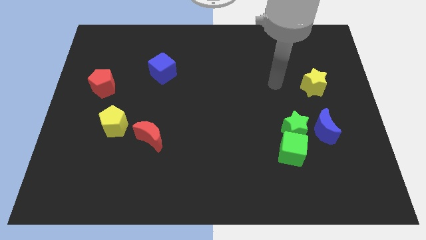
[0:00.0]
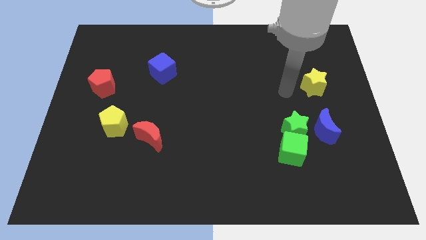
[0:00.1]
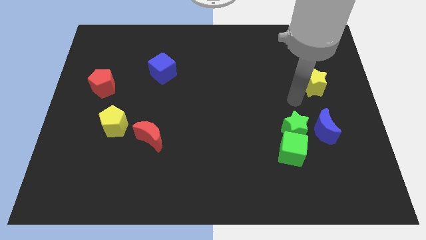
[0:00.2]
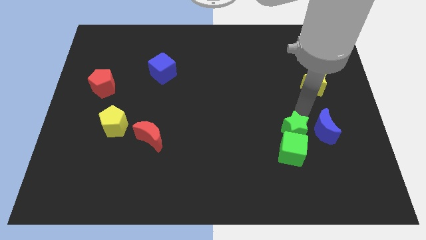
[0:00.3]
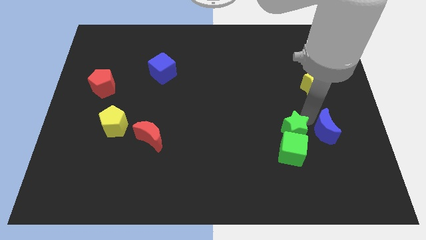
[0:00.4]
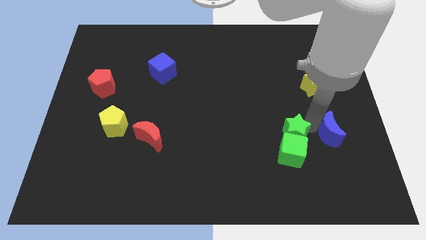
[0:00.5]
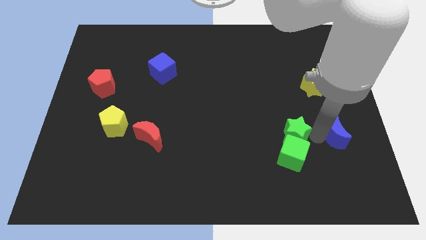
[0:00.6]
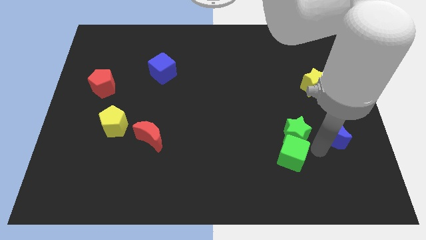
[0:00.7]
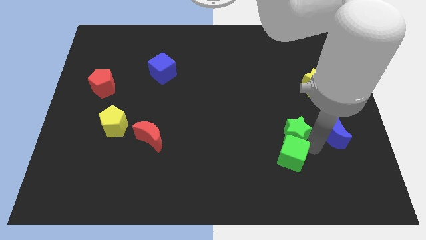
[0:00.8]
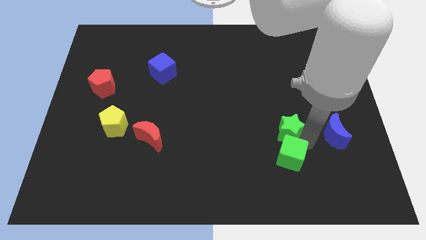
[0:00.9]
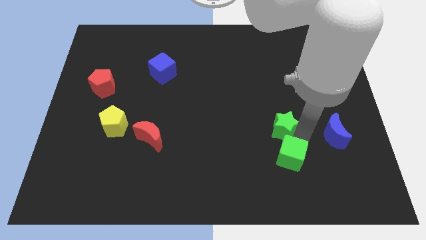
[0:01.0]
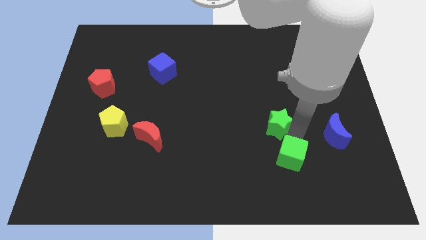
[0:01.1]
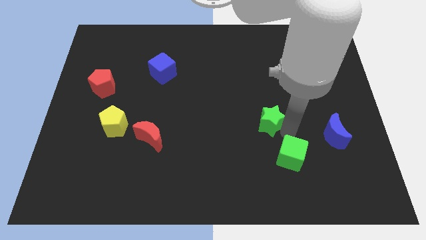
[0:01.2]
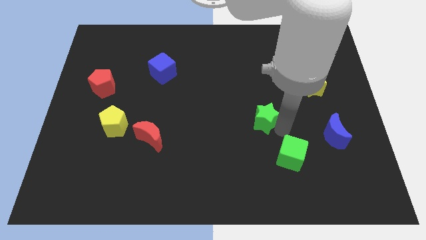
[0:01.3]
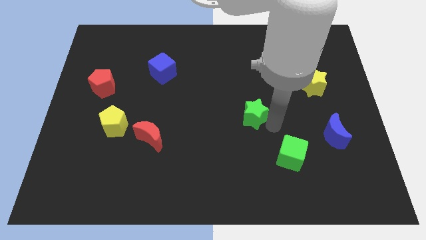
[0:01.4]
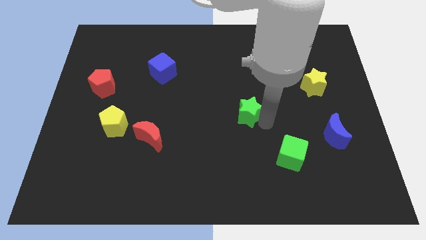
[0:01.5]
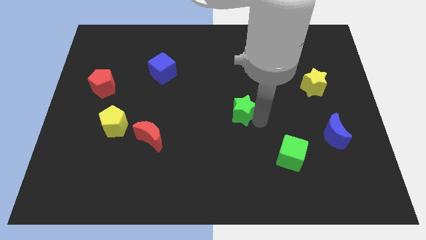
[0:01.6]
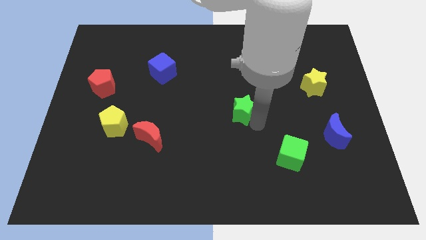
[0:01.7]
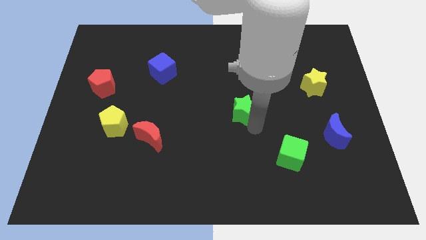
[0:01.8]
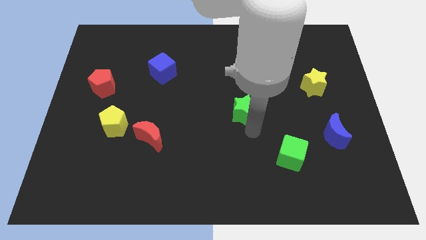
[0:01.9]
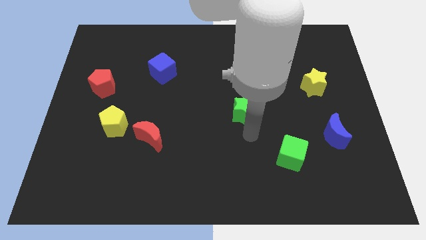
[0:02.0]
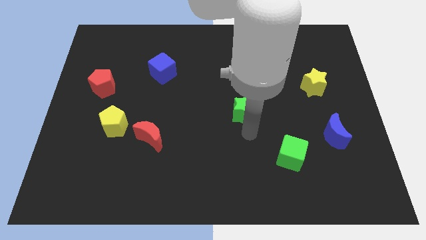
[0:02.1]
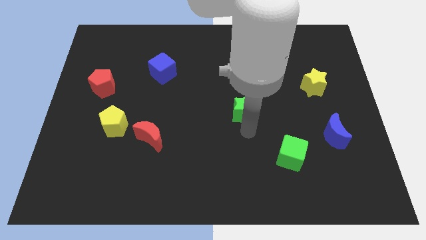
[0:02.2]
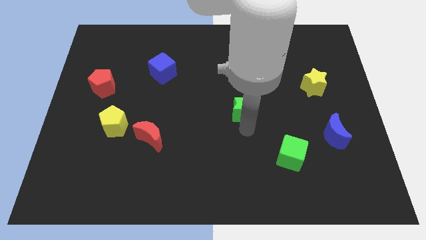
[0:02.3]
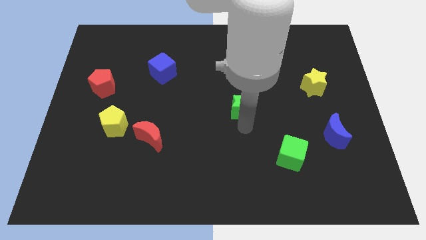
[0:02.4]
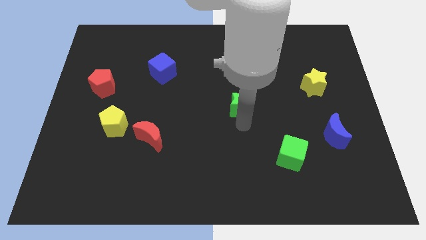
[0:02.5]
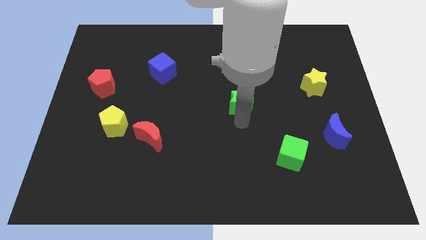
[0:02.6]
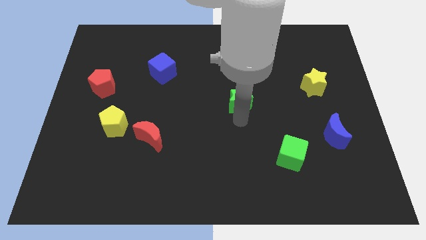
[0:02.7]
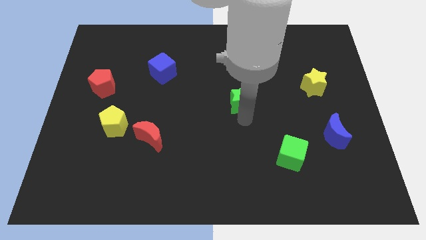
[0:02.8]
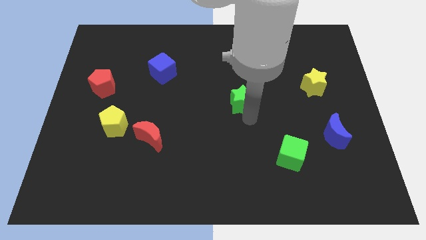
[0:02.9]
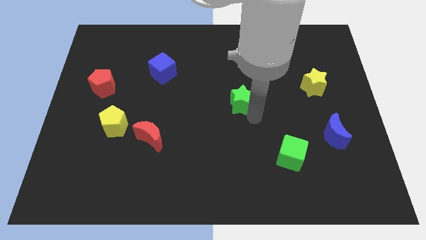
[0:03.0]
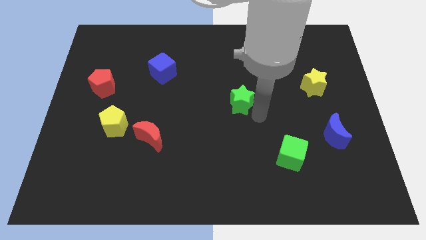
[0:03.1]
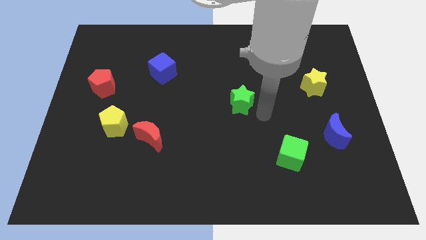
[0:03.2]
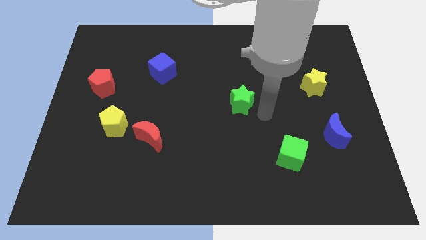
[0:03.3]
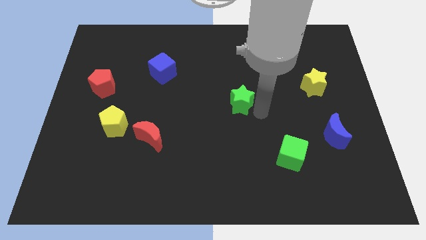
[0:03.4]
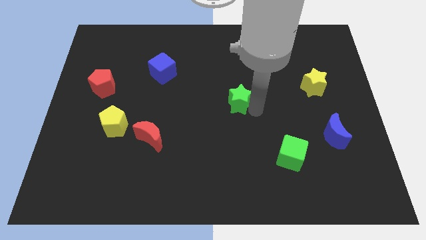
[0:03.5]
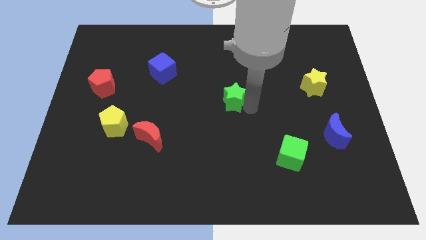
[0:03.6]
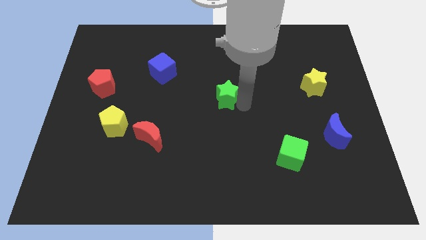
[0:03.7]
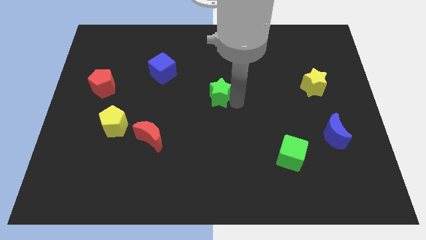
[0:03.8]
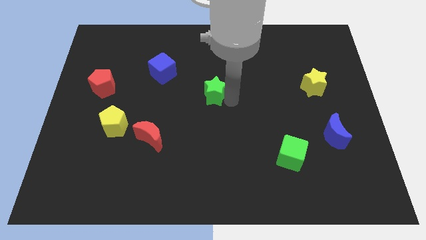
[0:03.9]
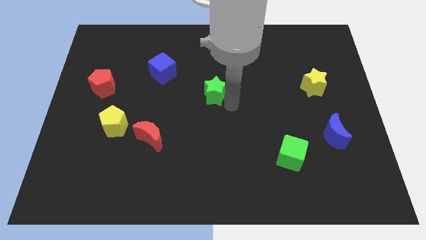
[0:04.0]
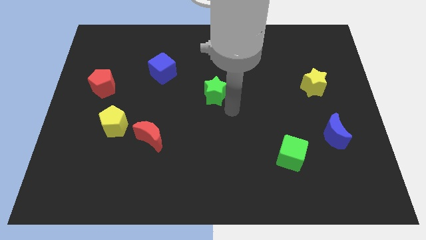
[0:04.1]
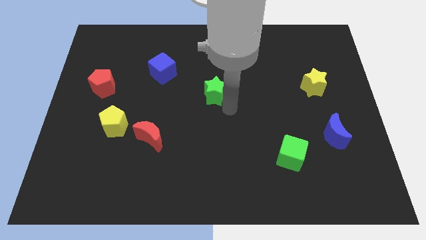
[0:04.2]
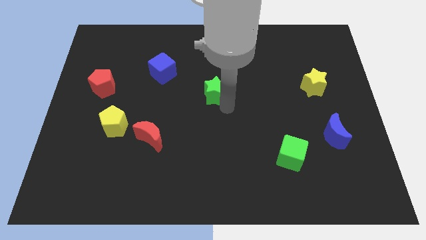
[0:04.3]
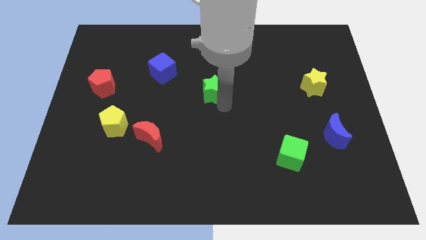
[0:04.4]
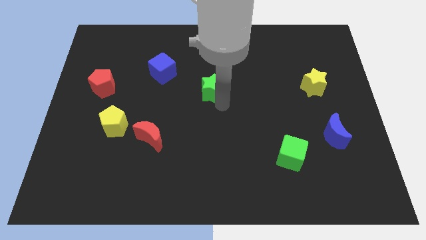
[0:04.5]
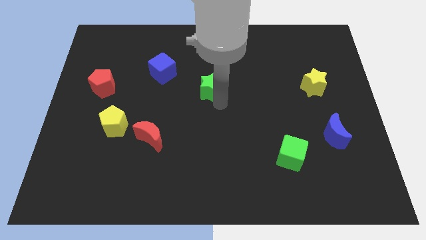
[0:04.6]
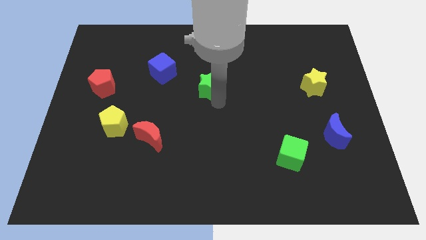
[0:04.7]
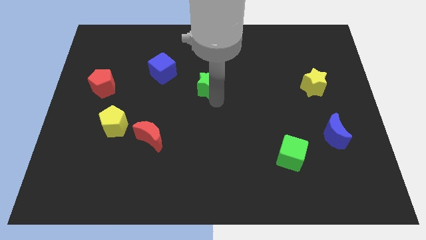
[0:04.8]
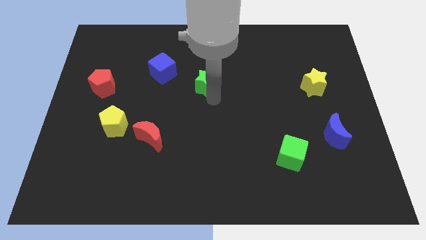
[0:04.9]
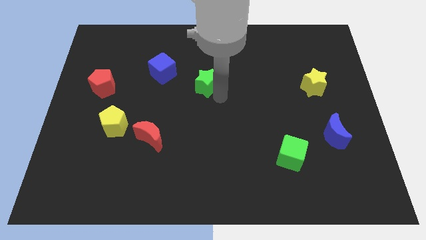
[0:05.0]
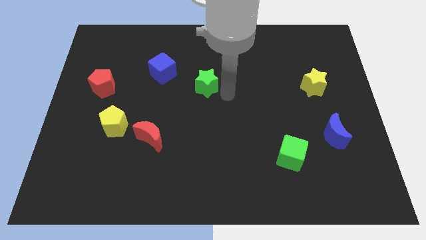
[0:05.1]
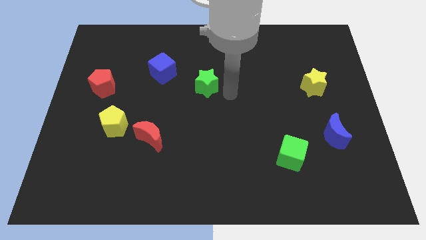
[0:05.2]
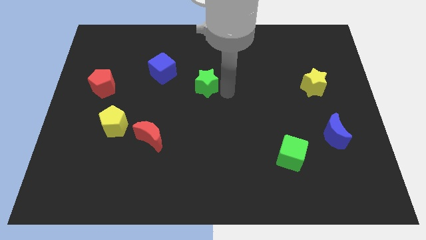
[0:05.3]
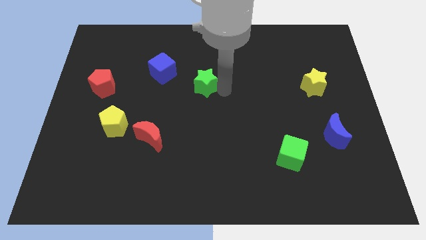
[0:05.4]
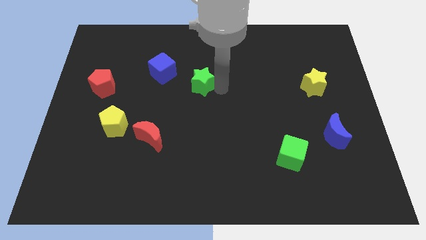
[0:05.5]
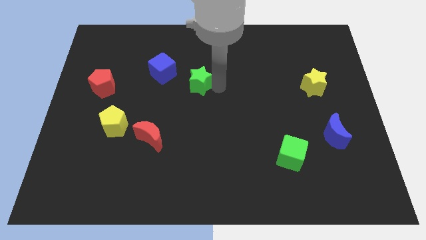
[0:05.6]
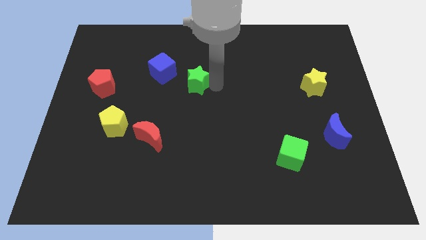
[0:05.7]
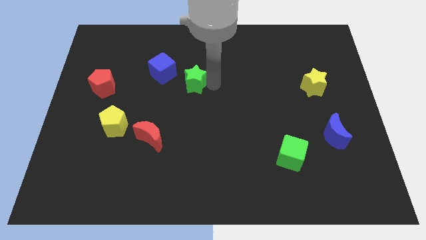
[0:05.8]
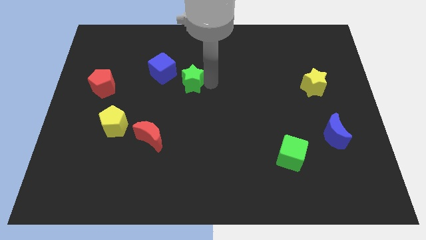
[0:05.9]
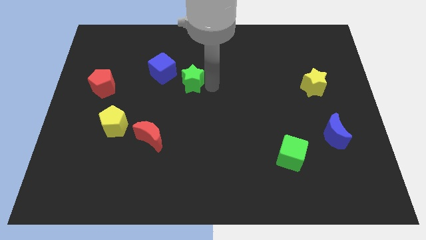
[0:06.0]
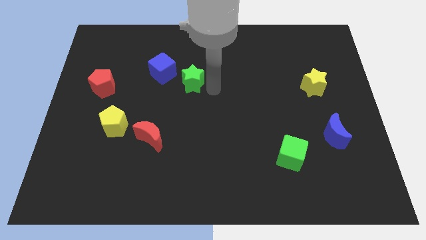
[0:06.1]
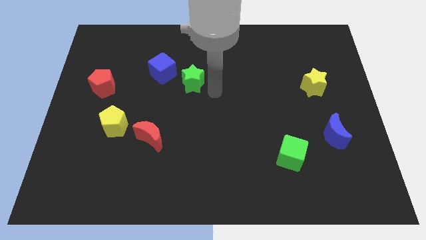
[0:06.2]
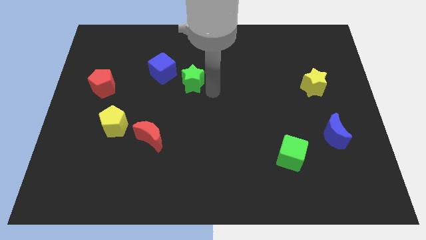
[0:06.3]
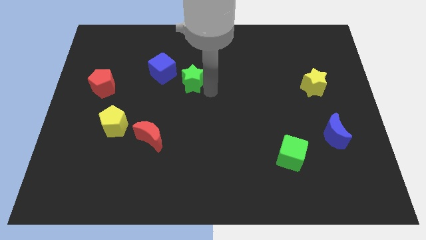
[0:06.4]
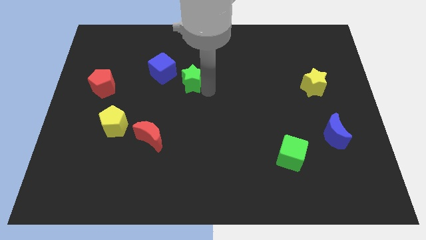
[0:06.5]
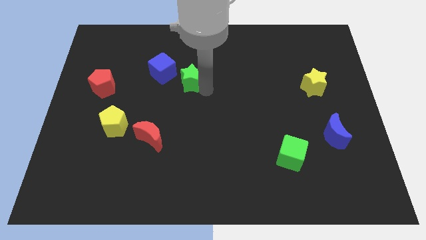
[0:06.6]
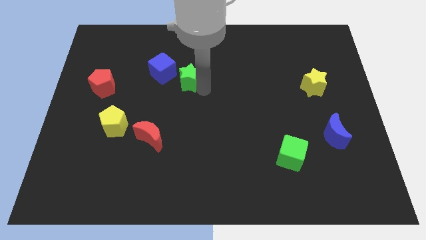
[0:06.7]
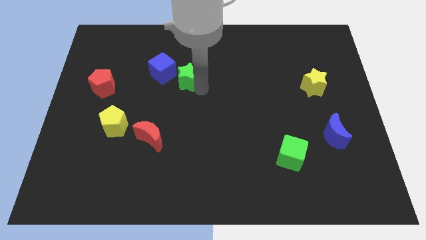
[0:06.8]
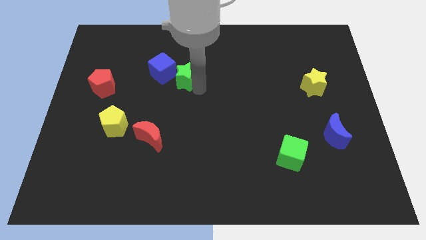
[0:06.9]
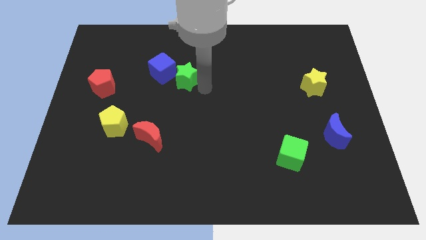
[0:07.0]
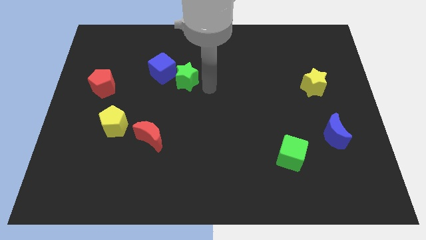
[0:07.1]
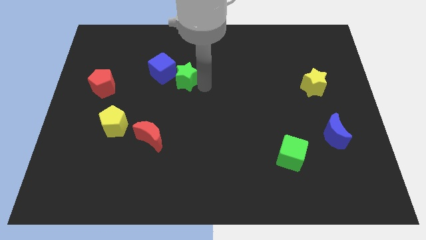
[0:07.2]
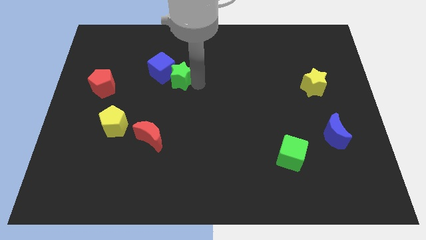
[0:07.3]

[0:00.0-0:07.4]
slide the green star close to the blue cube

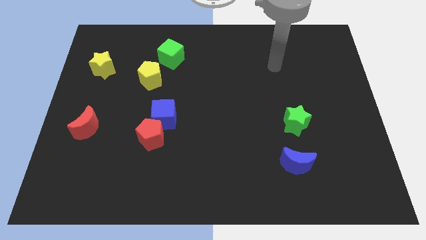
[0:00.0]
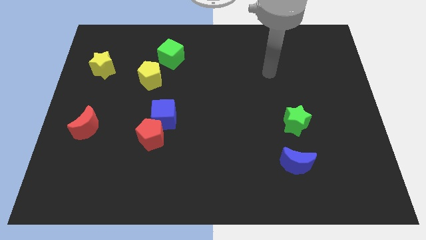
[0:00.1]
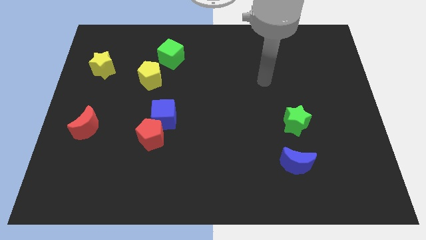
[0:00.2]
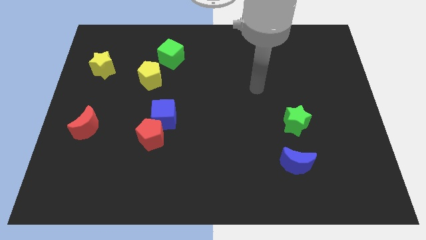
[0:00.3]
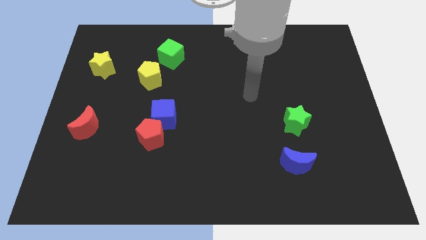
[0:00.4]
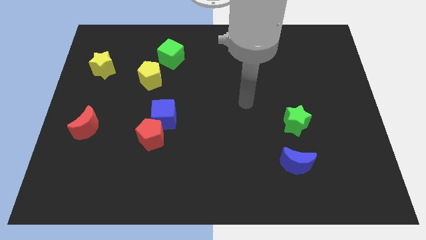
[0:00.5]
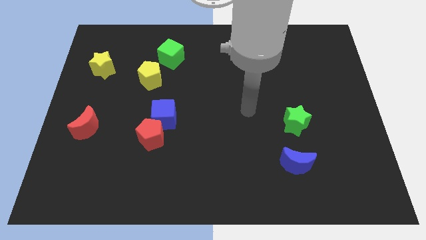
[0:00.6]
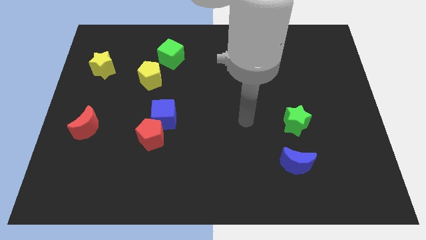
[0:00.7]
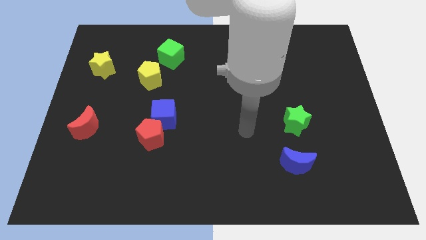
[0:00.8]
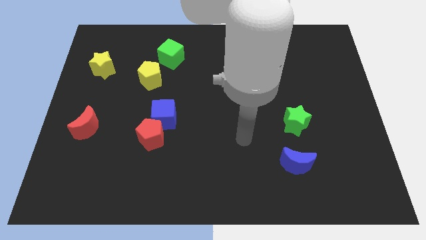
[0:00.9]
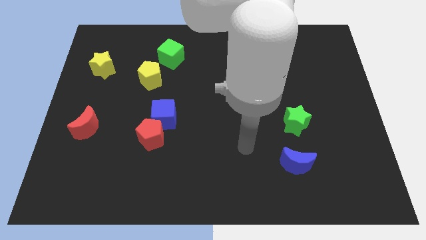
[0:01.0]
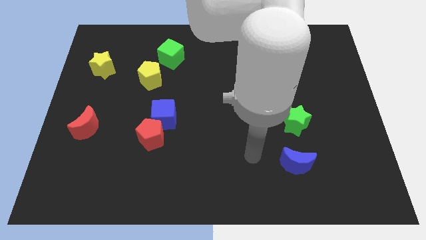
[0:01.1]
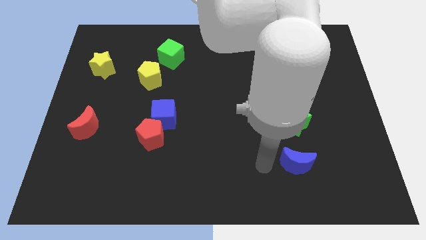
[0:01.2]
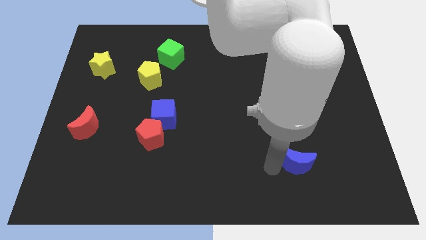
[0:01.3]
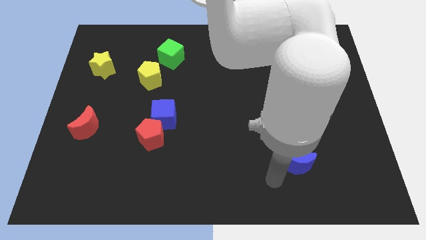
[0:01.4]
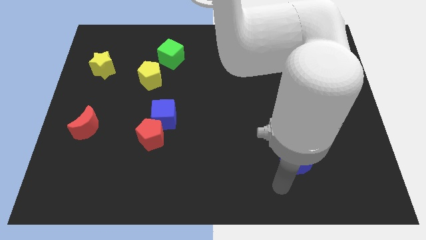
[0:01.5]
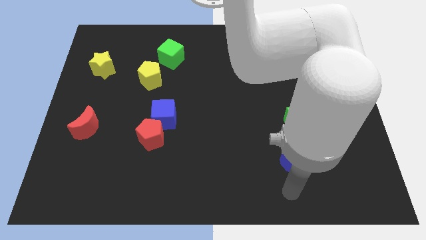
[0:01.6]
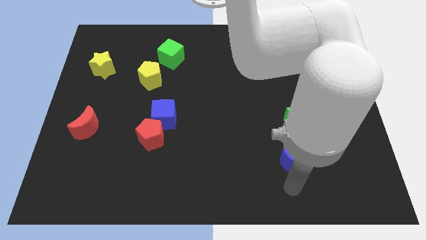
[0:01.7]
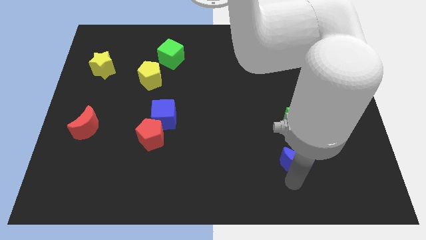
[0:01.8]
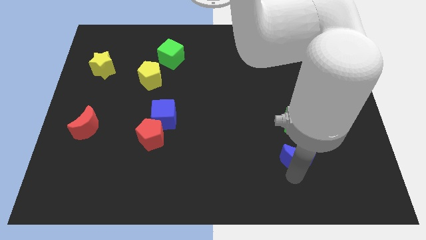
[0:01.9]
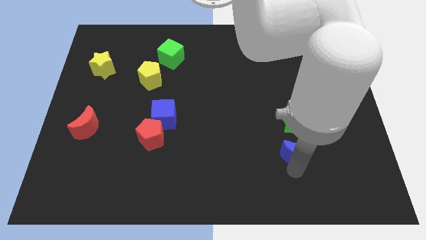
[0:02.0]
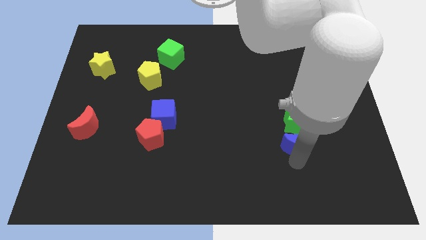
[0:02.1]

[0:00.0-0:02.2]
move the blue moon towards the green star
